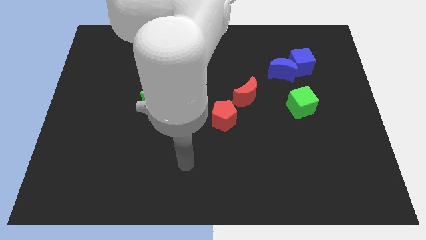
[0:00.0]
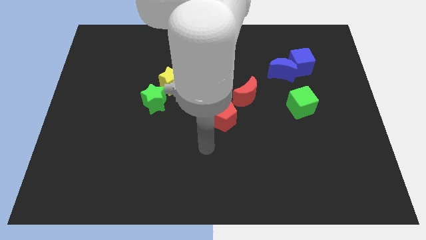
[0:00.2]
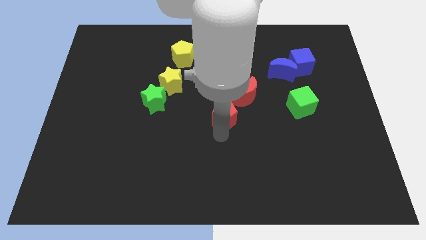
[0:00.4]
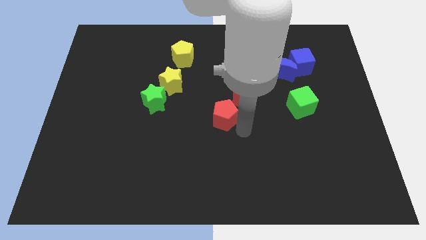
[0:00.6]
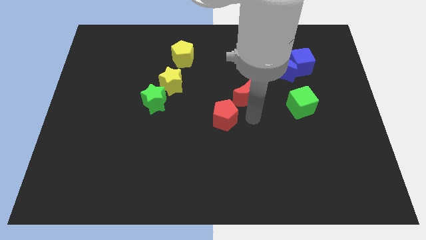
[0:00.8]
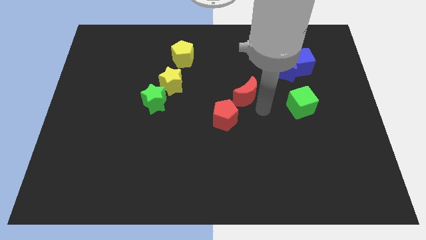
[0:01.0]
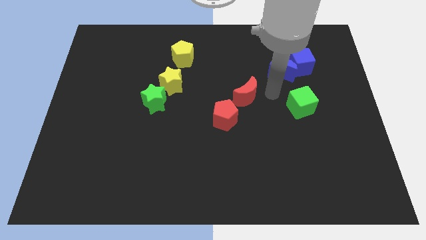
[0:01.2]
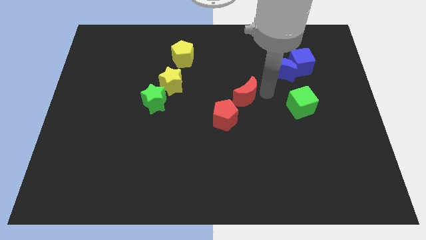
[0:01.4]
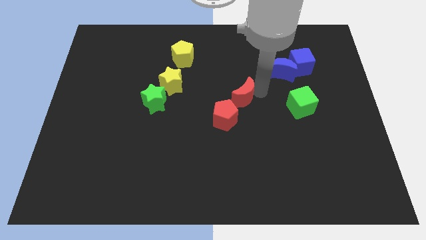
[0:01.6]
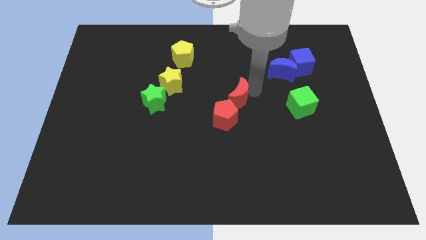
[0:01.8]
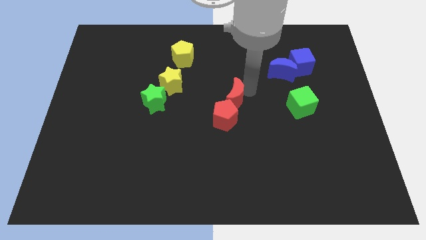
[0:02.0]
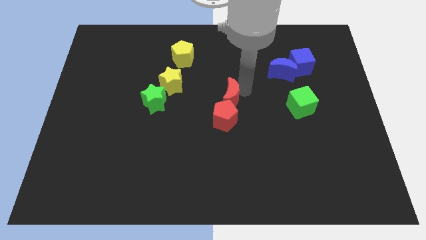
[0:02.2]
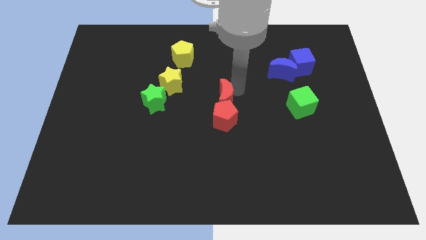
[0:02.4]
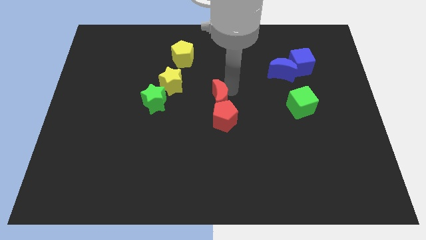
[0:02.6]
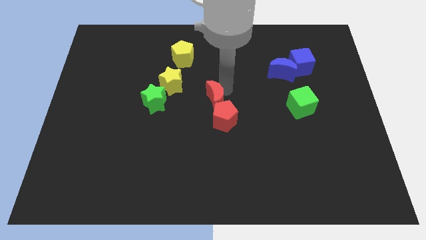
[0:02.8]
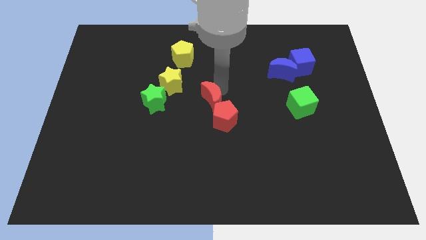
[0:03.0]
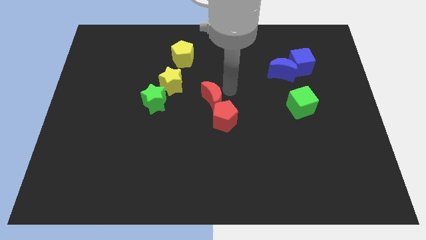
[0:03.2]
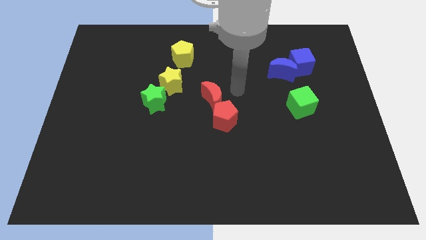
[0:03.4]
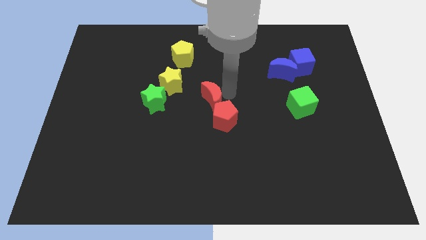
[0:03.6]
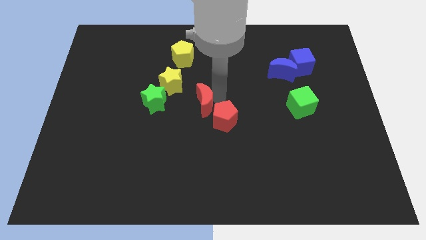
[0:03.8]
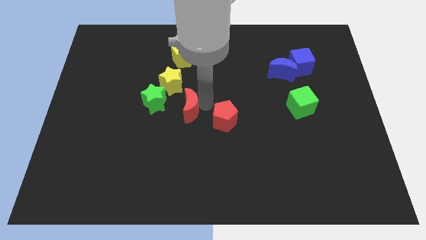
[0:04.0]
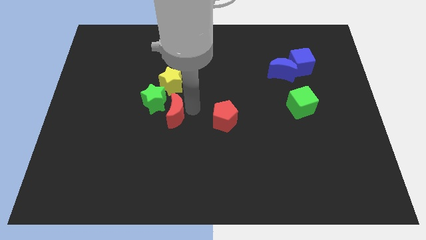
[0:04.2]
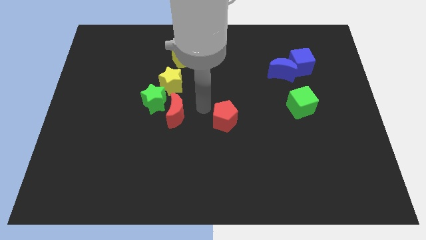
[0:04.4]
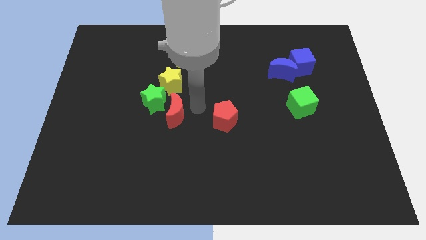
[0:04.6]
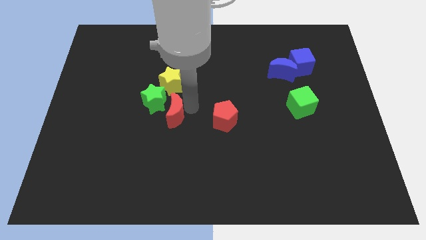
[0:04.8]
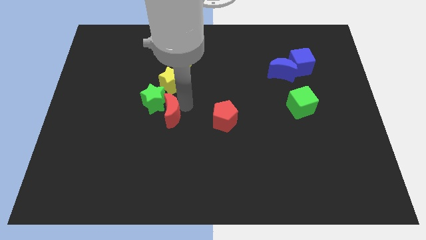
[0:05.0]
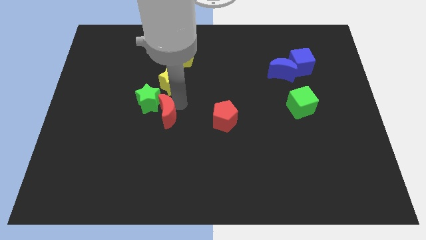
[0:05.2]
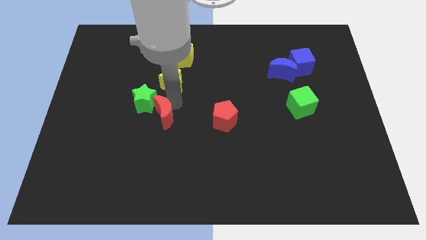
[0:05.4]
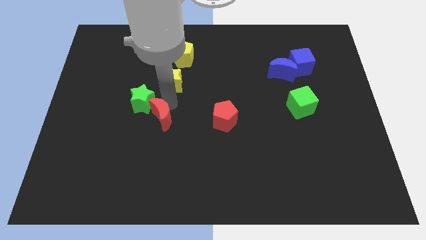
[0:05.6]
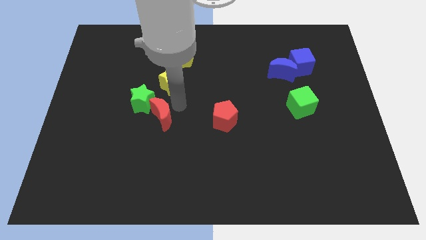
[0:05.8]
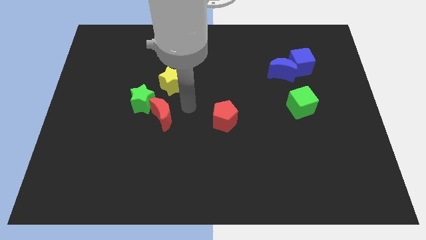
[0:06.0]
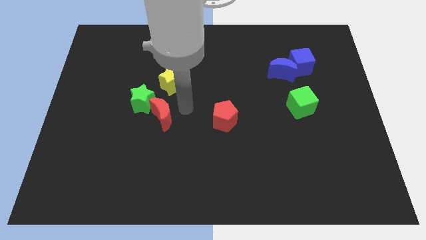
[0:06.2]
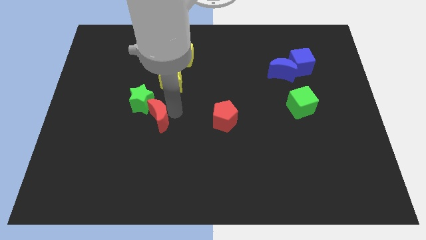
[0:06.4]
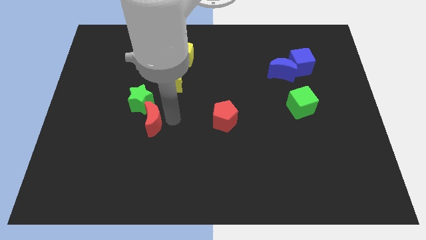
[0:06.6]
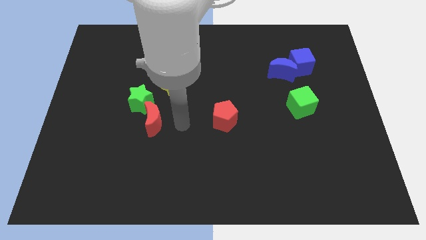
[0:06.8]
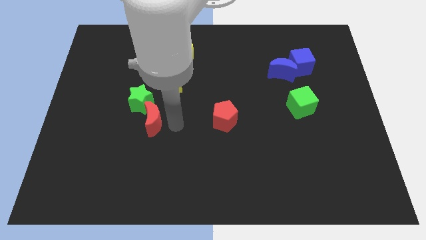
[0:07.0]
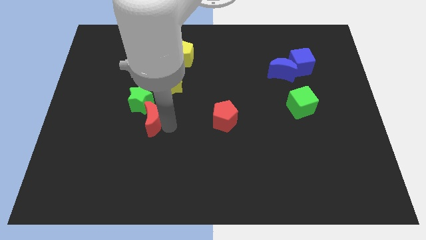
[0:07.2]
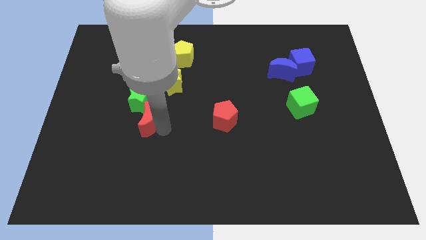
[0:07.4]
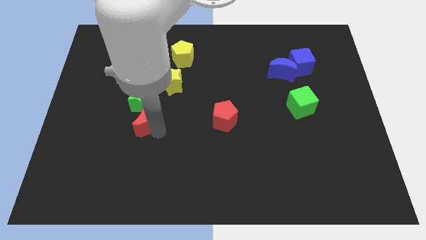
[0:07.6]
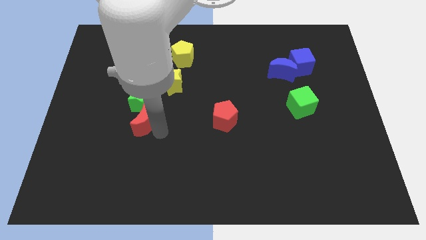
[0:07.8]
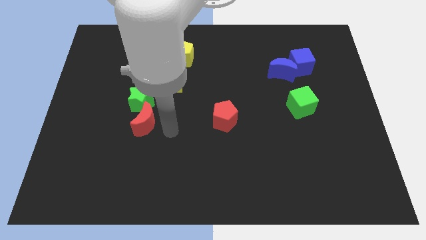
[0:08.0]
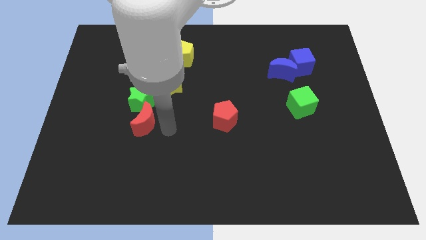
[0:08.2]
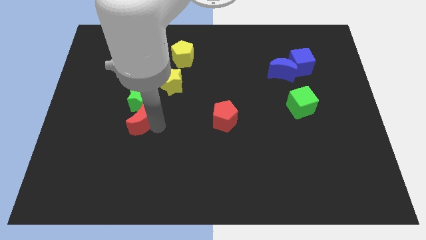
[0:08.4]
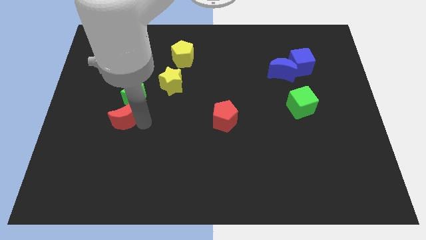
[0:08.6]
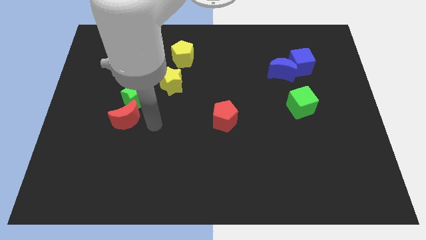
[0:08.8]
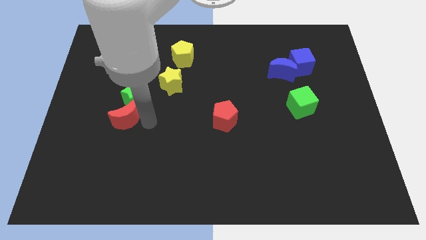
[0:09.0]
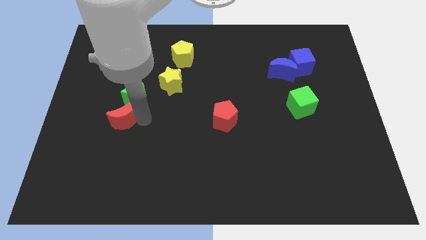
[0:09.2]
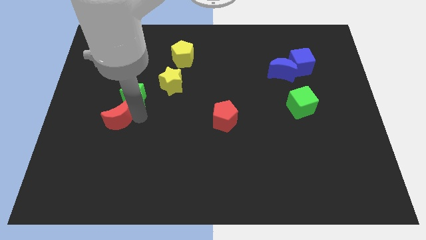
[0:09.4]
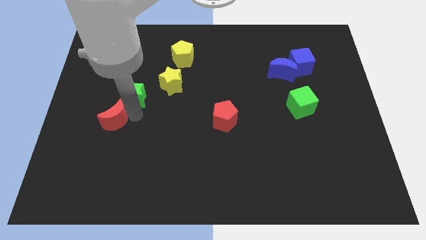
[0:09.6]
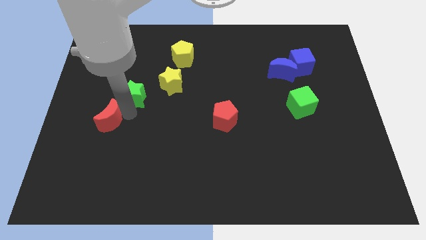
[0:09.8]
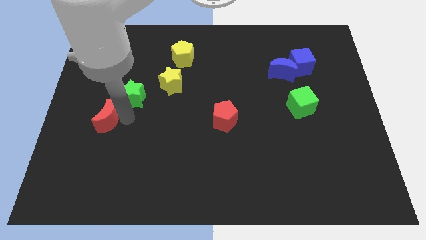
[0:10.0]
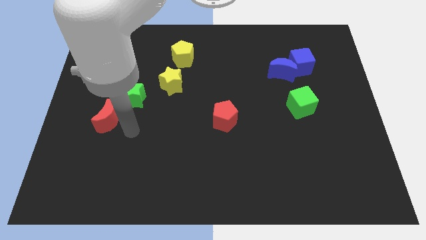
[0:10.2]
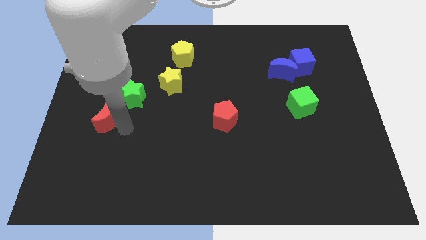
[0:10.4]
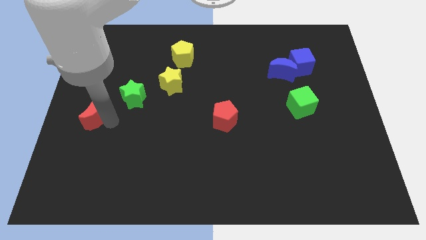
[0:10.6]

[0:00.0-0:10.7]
put the red moon to the center left
